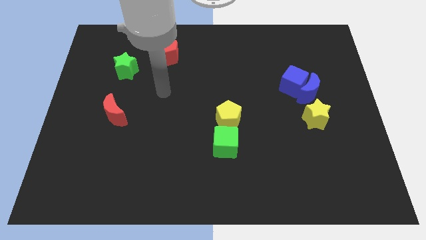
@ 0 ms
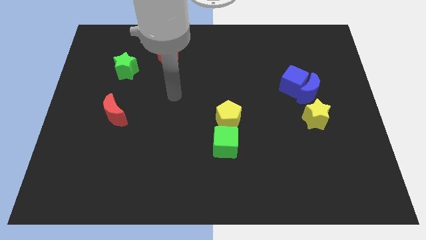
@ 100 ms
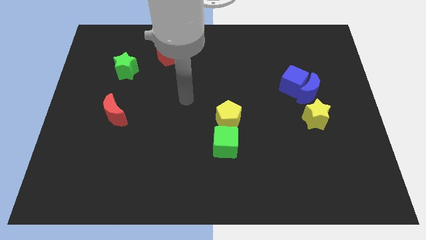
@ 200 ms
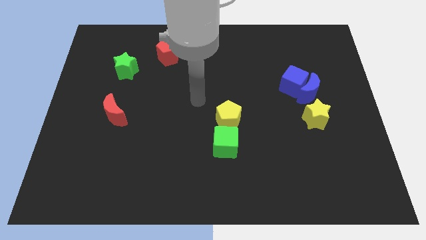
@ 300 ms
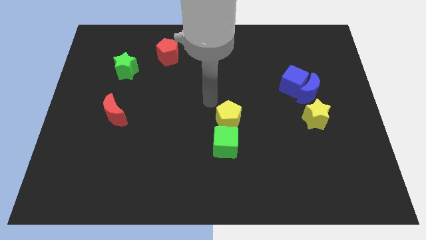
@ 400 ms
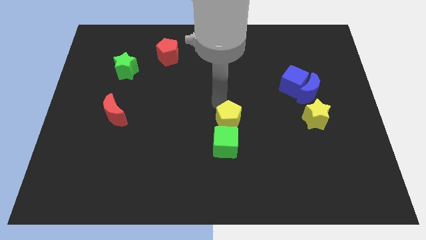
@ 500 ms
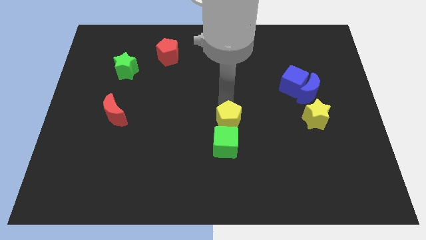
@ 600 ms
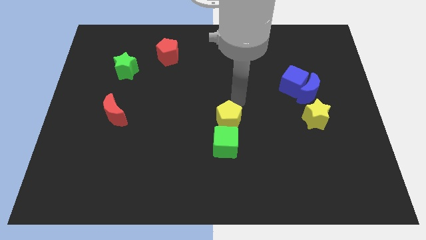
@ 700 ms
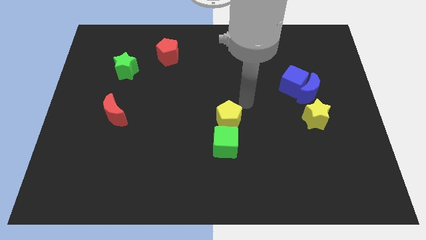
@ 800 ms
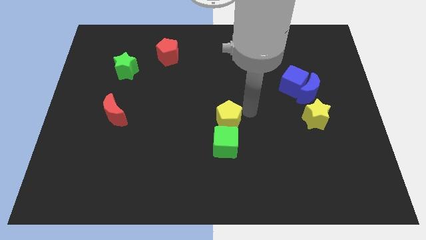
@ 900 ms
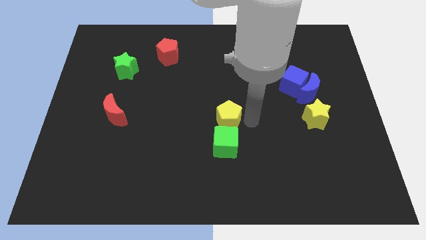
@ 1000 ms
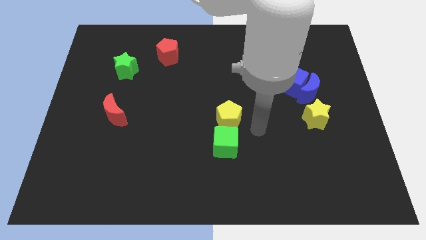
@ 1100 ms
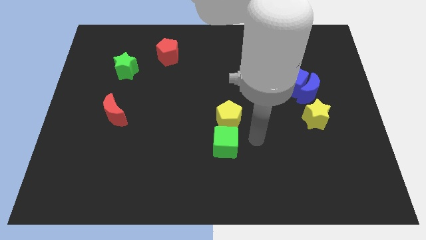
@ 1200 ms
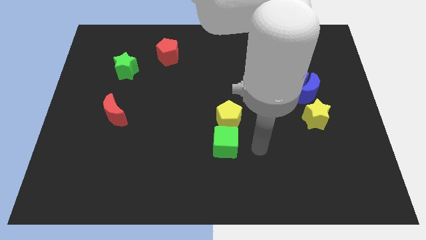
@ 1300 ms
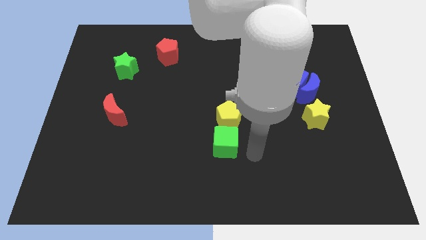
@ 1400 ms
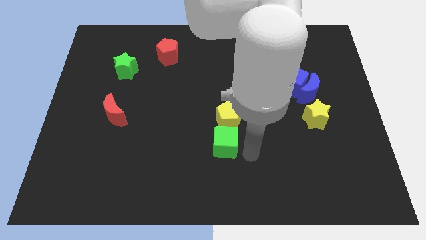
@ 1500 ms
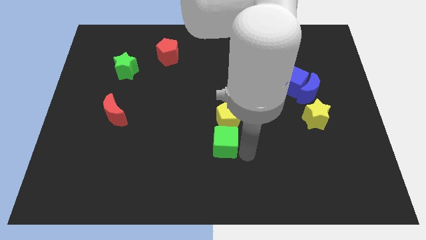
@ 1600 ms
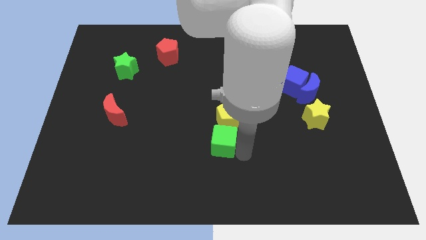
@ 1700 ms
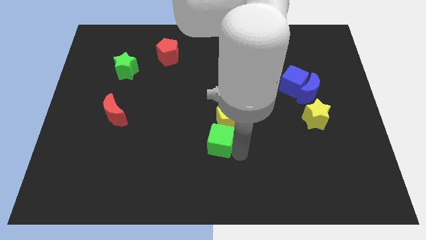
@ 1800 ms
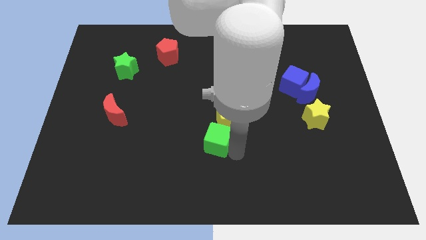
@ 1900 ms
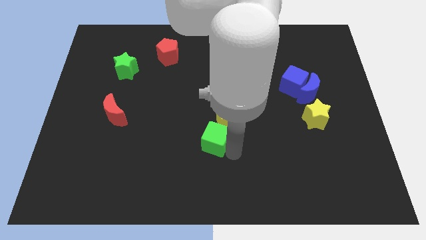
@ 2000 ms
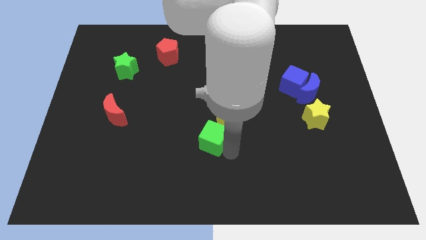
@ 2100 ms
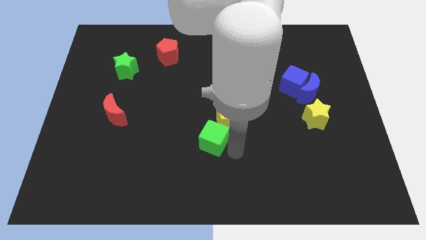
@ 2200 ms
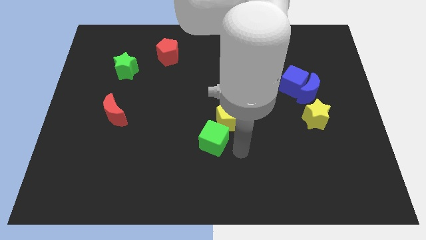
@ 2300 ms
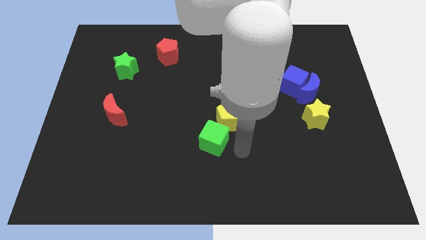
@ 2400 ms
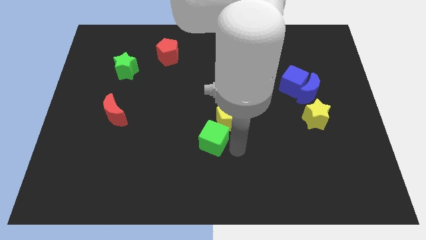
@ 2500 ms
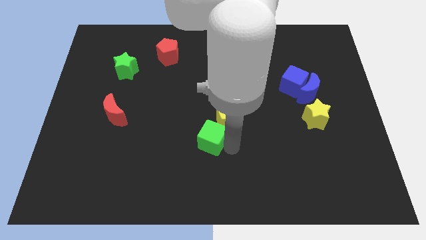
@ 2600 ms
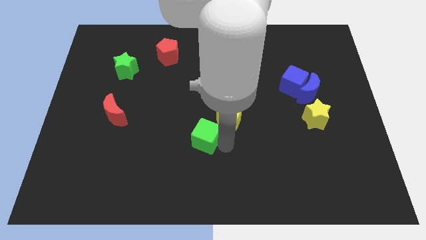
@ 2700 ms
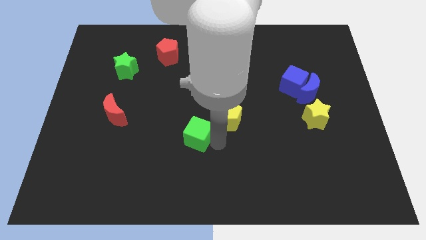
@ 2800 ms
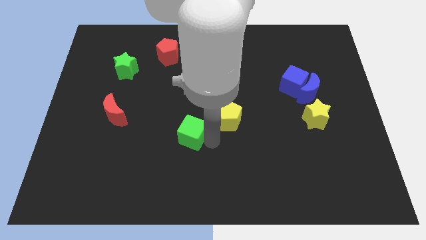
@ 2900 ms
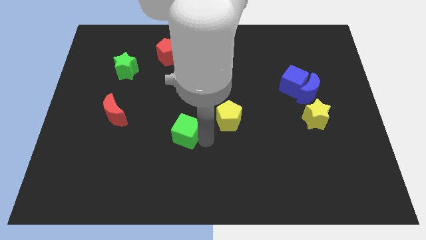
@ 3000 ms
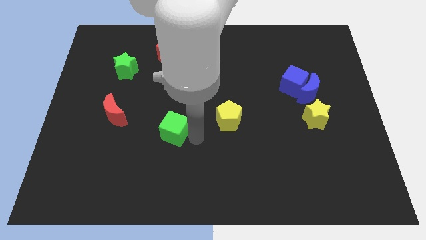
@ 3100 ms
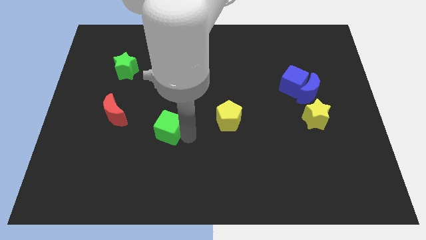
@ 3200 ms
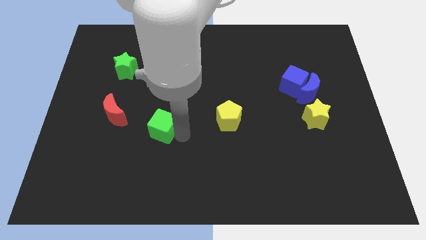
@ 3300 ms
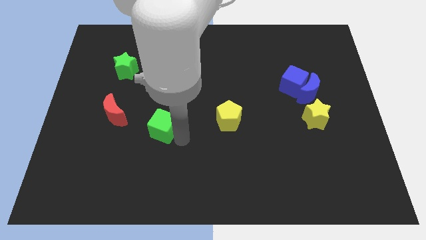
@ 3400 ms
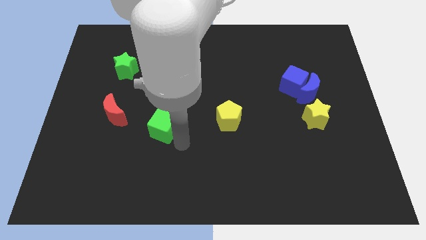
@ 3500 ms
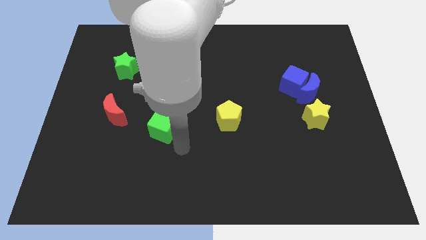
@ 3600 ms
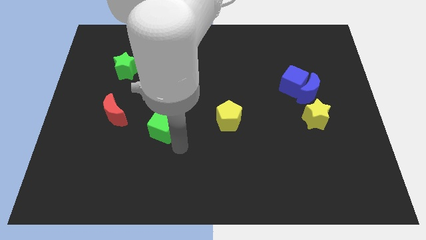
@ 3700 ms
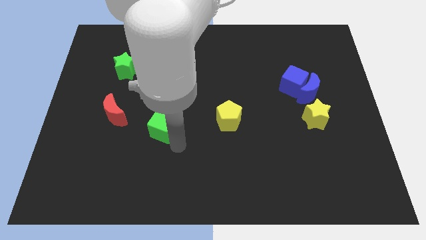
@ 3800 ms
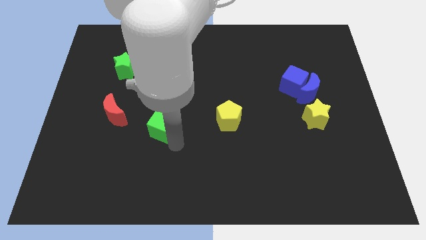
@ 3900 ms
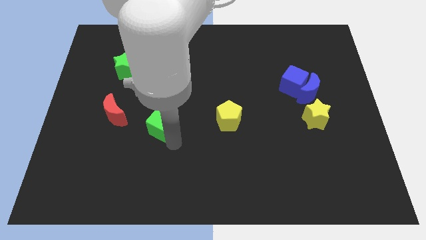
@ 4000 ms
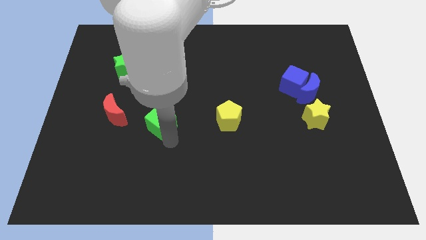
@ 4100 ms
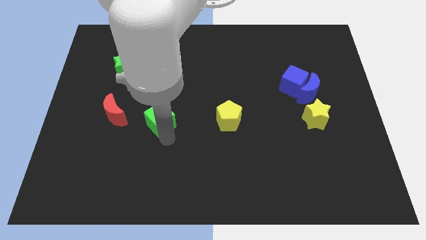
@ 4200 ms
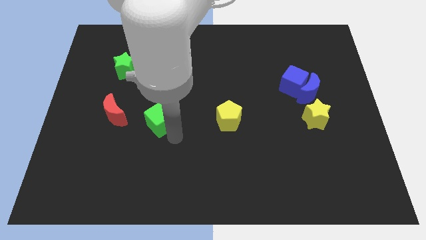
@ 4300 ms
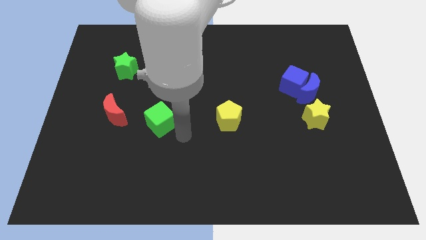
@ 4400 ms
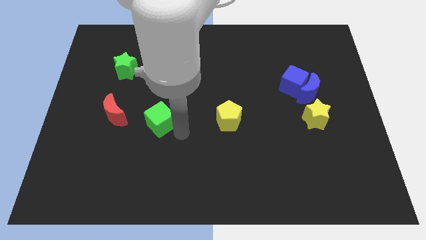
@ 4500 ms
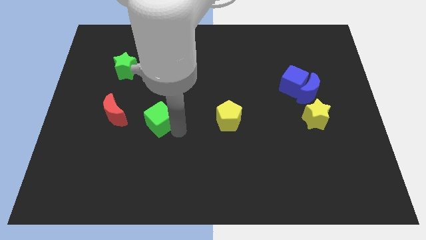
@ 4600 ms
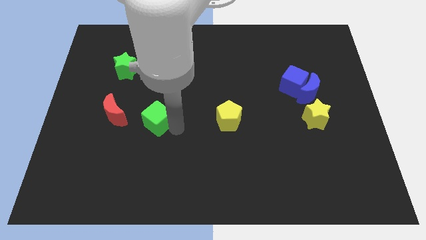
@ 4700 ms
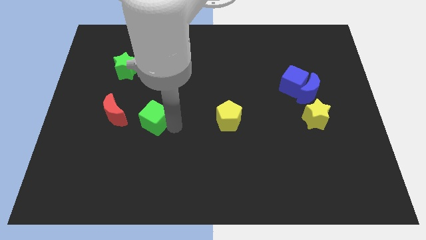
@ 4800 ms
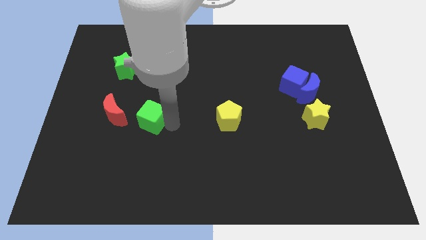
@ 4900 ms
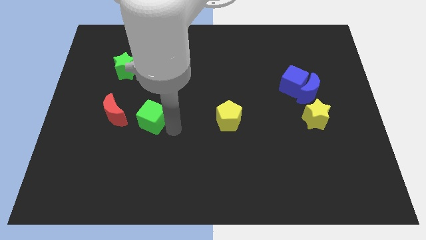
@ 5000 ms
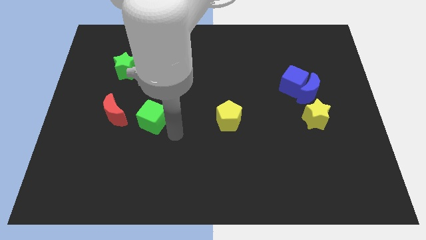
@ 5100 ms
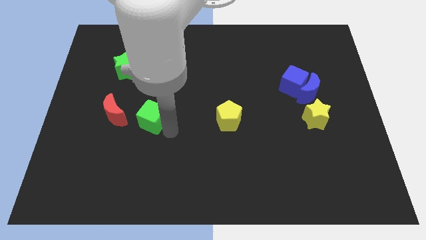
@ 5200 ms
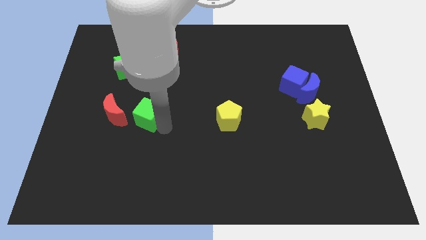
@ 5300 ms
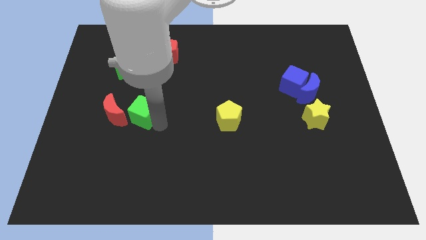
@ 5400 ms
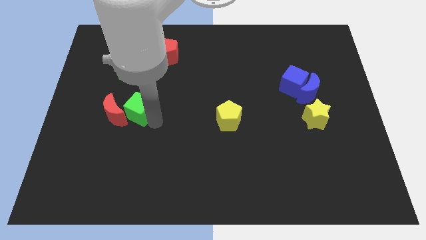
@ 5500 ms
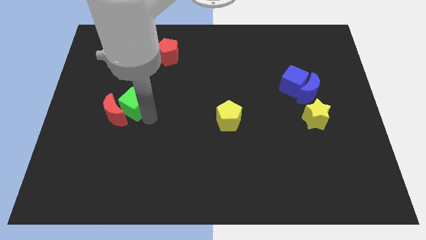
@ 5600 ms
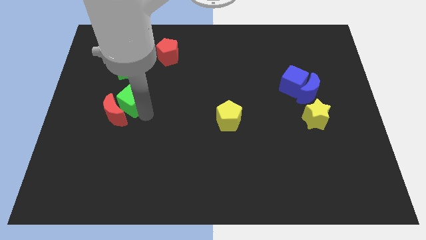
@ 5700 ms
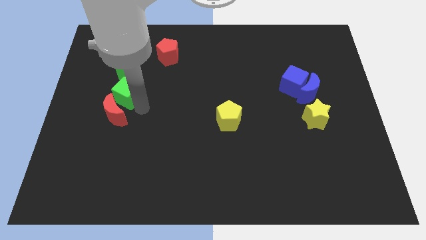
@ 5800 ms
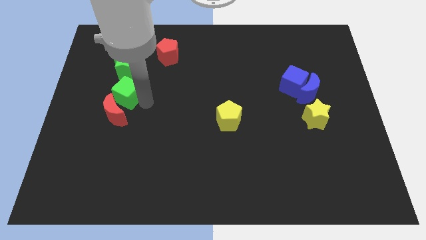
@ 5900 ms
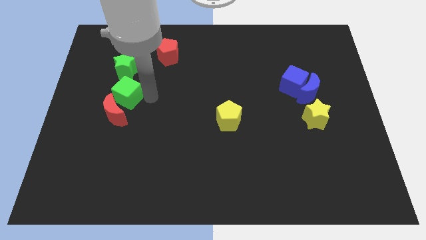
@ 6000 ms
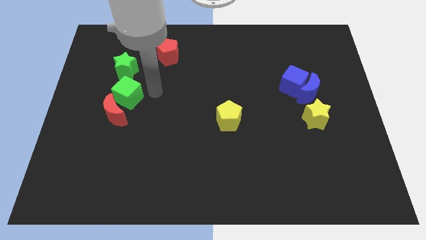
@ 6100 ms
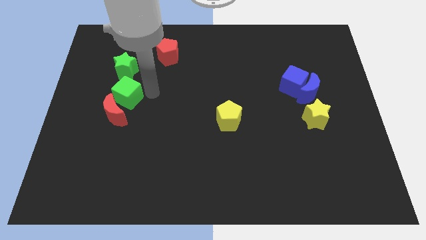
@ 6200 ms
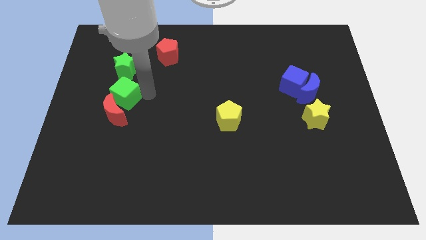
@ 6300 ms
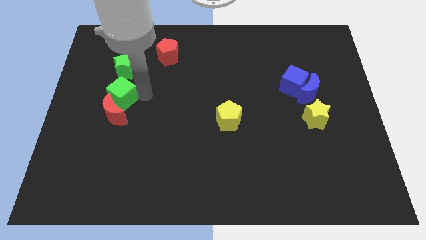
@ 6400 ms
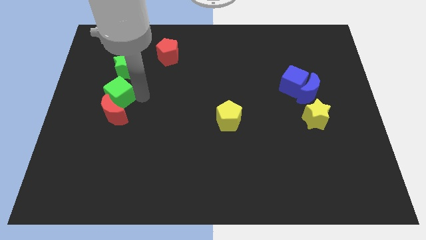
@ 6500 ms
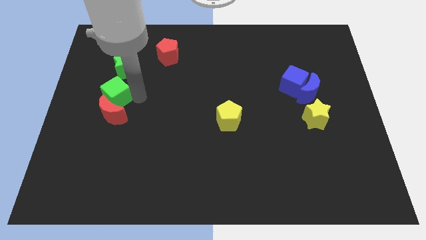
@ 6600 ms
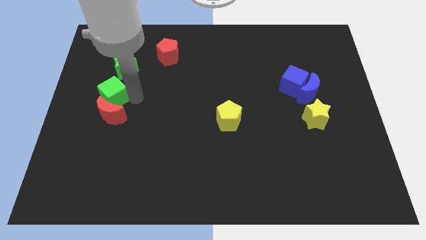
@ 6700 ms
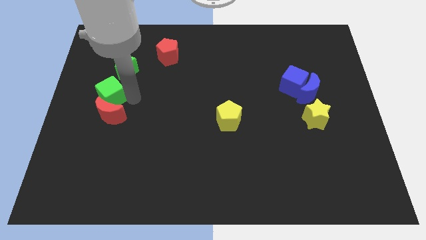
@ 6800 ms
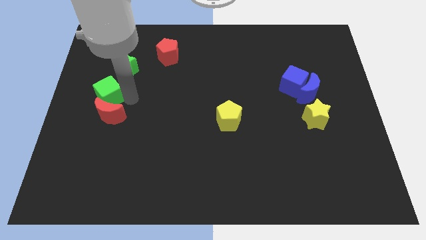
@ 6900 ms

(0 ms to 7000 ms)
slide the green cube to the center left
